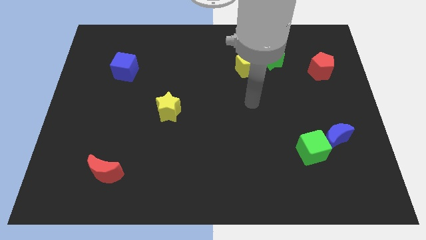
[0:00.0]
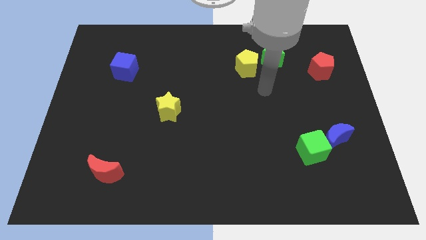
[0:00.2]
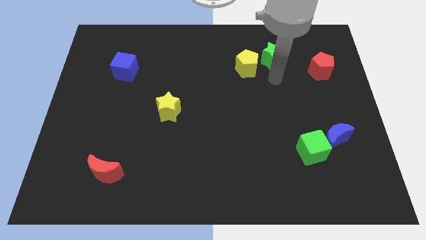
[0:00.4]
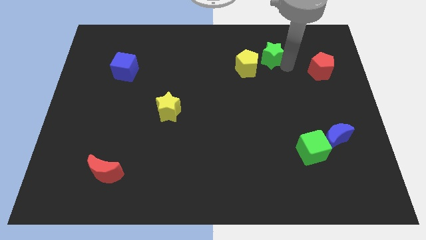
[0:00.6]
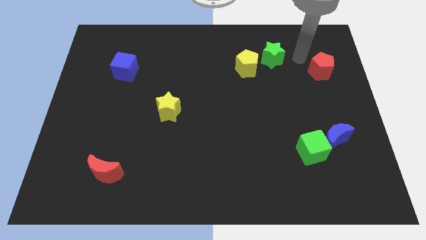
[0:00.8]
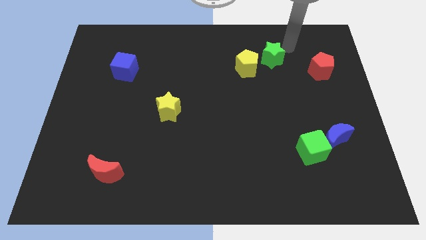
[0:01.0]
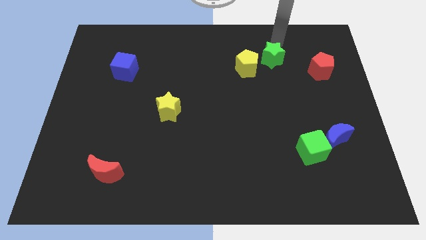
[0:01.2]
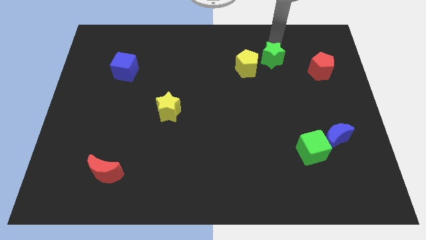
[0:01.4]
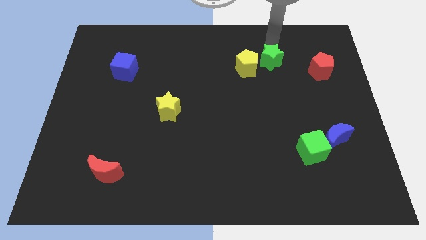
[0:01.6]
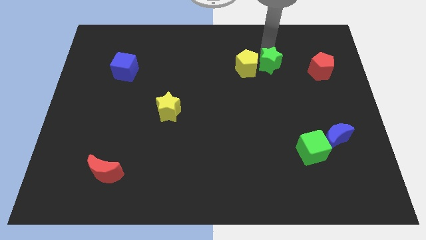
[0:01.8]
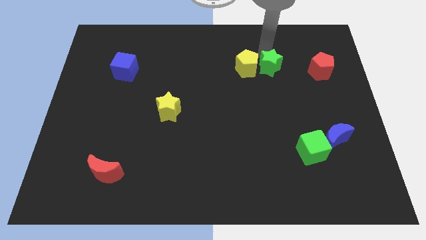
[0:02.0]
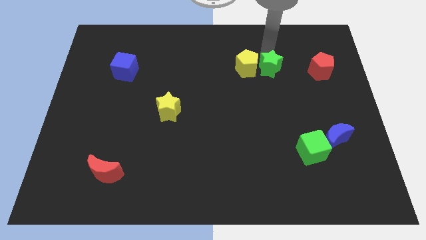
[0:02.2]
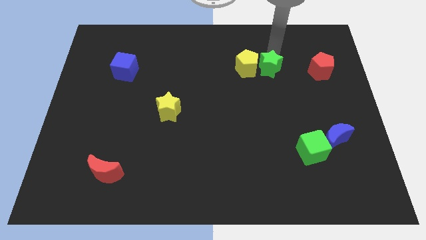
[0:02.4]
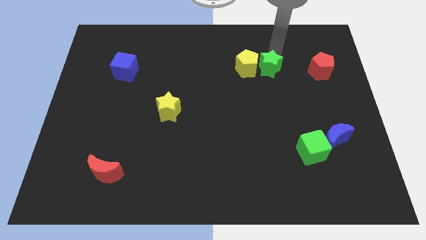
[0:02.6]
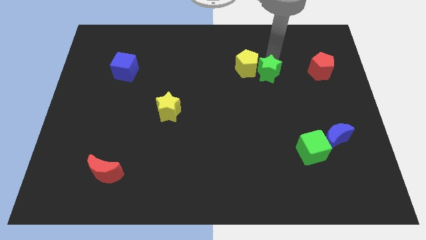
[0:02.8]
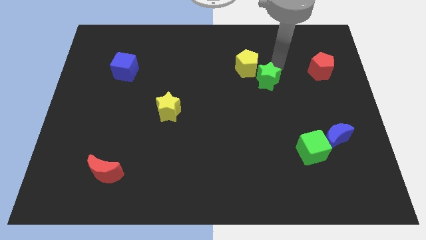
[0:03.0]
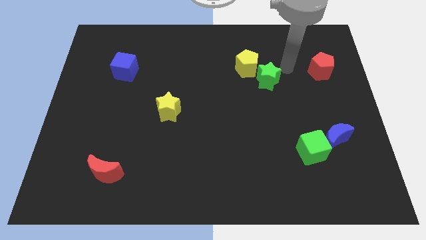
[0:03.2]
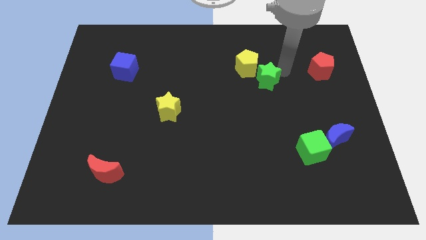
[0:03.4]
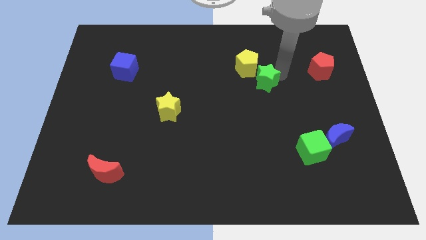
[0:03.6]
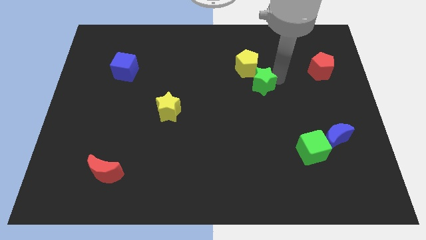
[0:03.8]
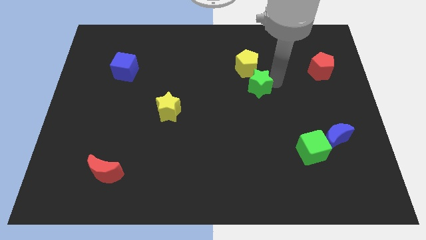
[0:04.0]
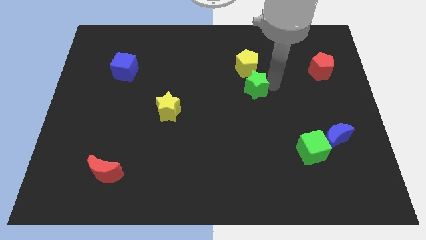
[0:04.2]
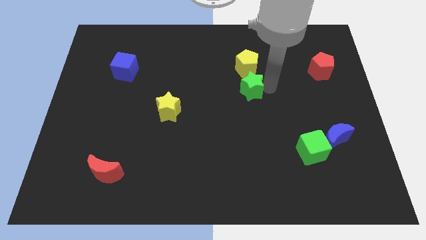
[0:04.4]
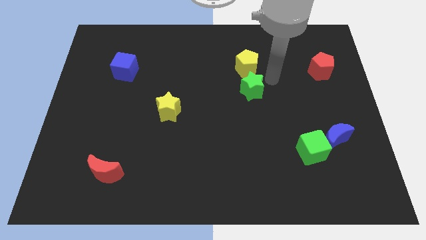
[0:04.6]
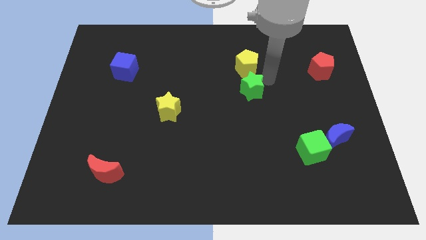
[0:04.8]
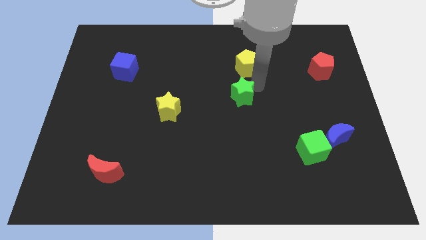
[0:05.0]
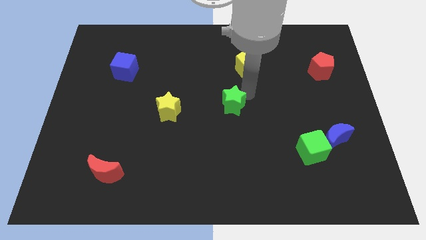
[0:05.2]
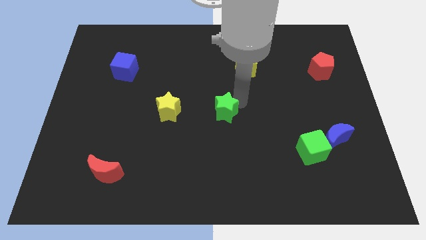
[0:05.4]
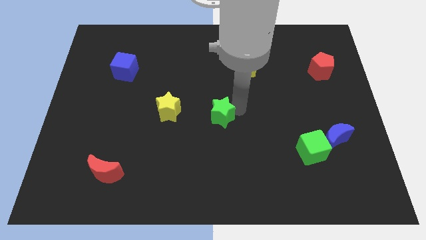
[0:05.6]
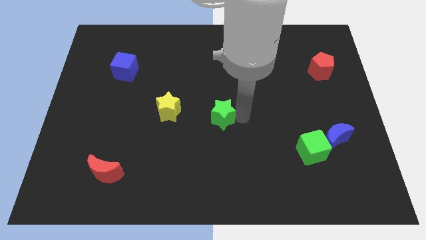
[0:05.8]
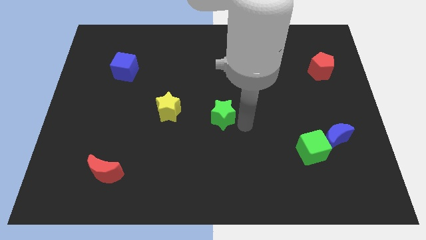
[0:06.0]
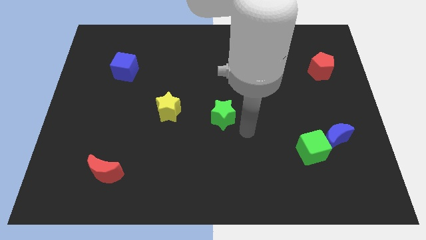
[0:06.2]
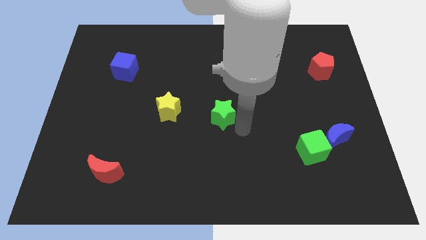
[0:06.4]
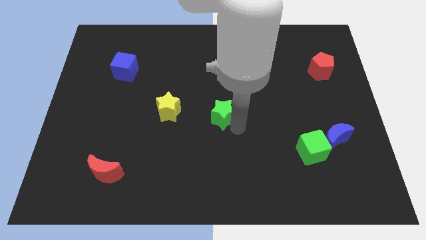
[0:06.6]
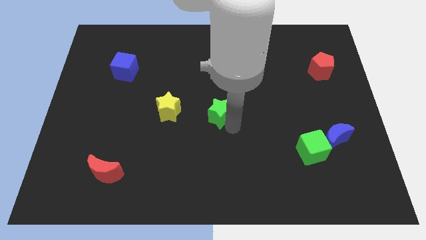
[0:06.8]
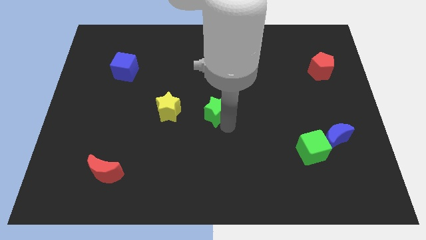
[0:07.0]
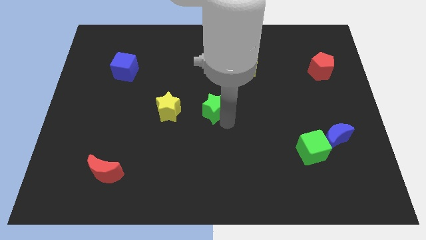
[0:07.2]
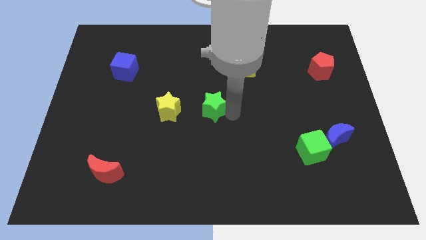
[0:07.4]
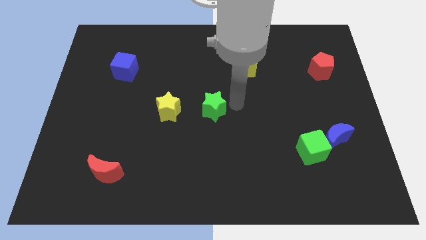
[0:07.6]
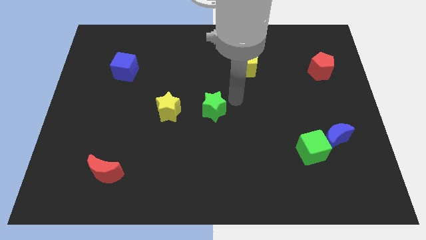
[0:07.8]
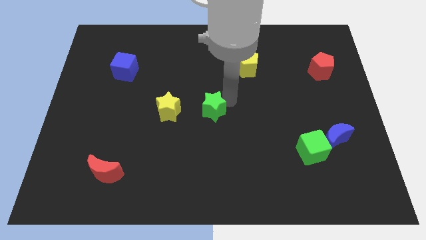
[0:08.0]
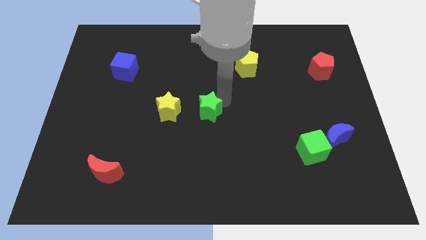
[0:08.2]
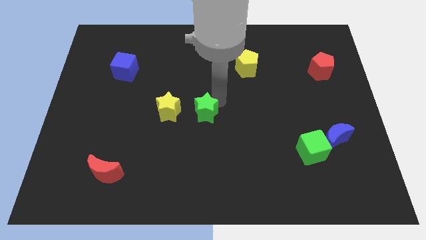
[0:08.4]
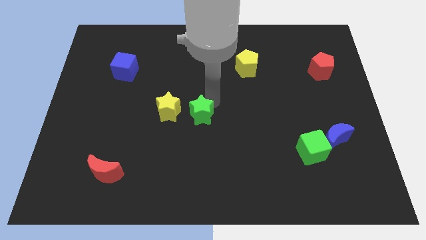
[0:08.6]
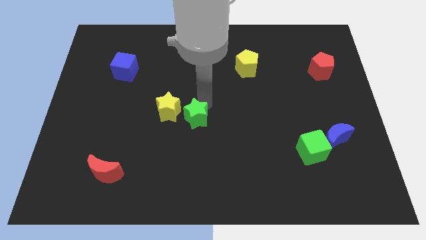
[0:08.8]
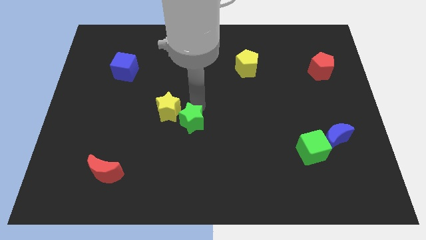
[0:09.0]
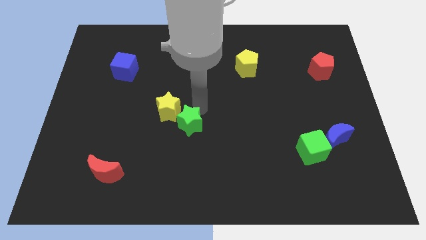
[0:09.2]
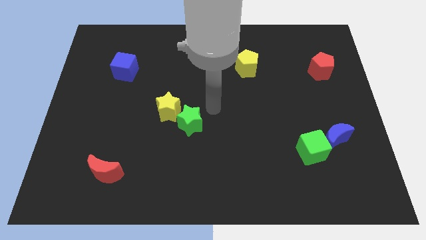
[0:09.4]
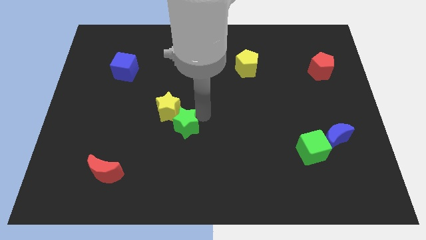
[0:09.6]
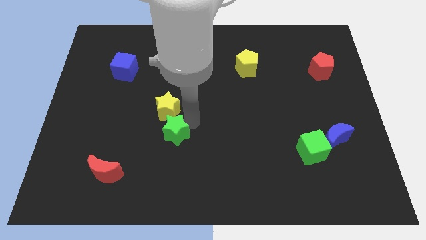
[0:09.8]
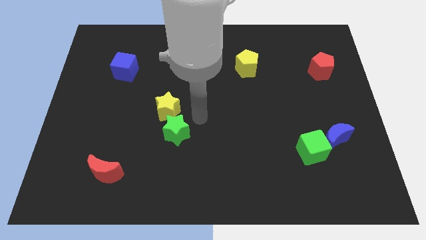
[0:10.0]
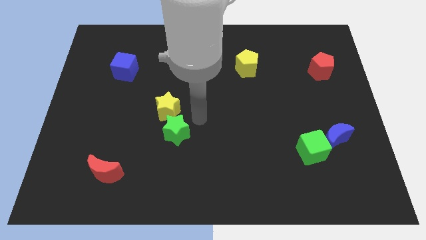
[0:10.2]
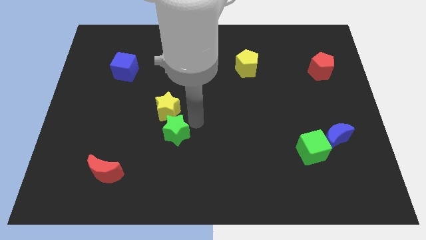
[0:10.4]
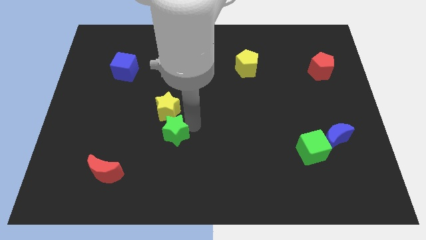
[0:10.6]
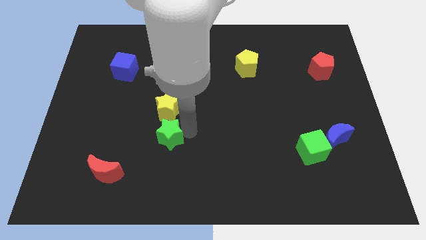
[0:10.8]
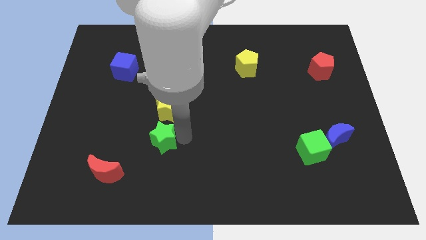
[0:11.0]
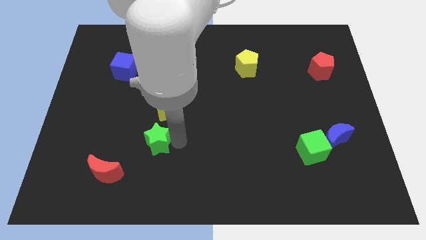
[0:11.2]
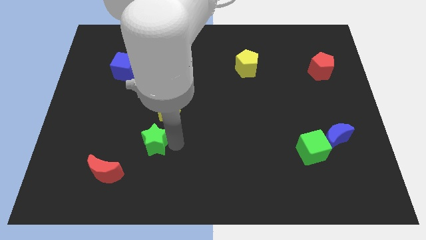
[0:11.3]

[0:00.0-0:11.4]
push the green star diagonally up and to the right of the red moon

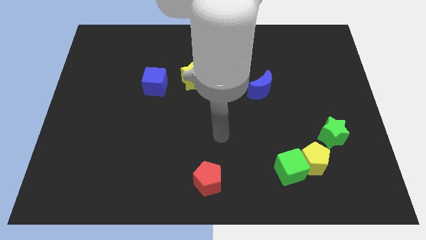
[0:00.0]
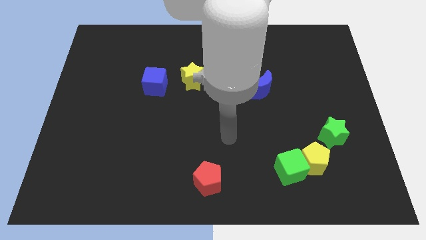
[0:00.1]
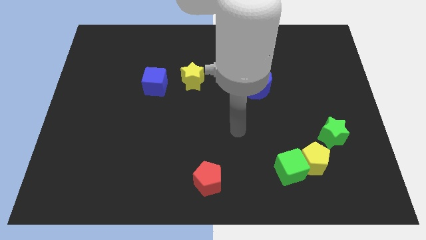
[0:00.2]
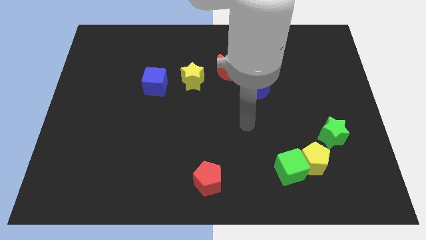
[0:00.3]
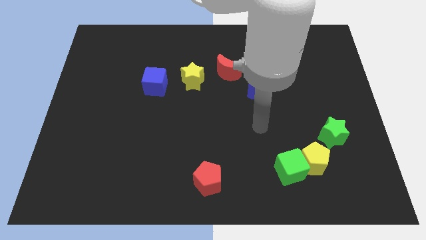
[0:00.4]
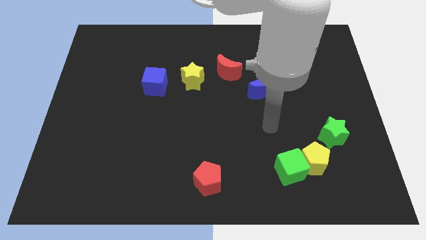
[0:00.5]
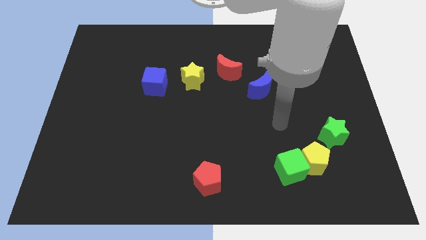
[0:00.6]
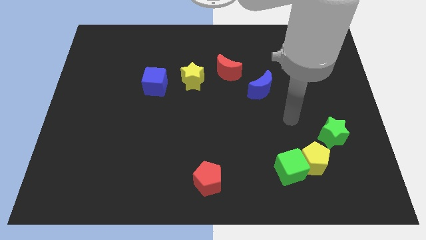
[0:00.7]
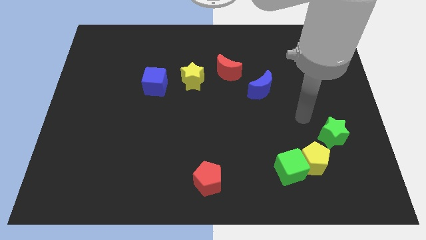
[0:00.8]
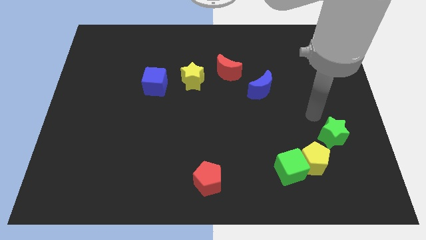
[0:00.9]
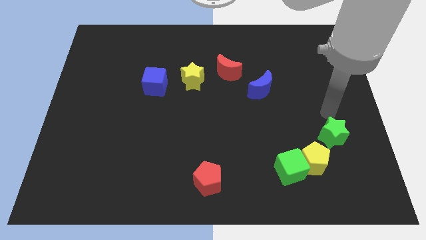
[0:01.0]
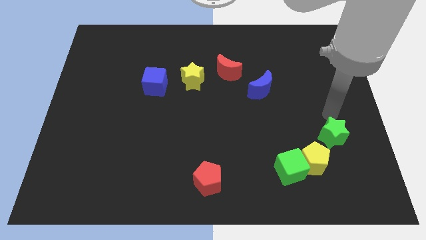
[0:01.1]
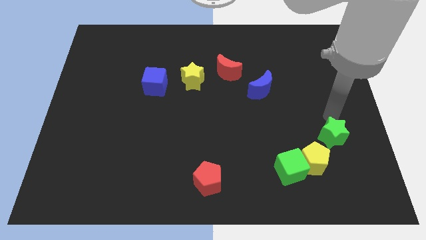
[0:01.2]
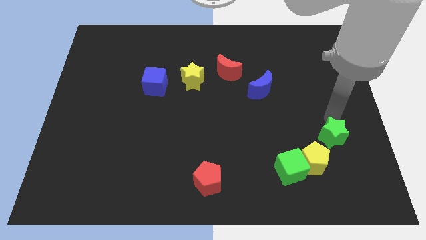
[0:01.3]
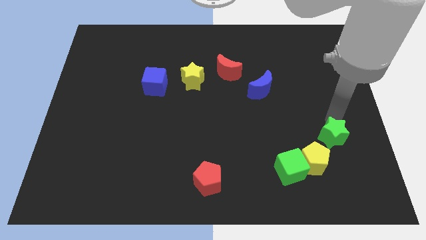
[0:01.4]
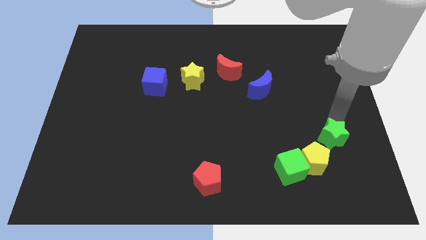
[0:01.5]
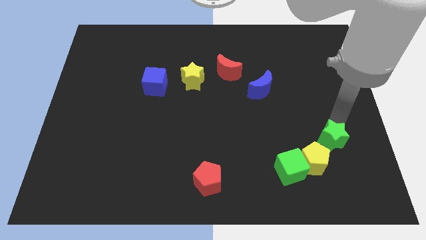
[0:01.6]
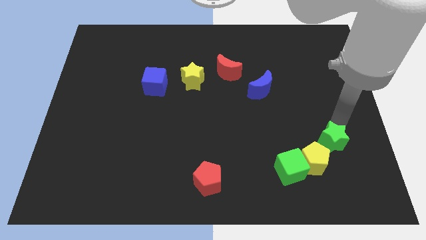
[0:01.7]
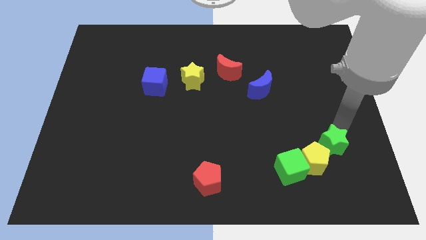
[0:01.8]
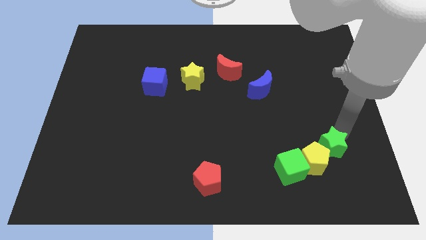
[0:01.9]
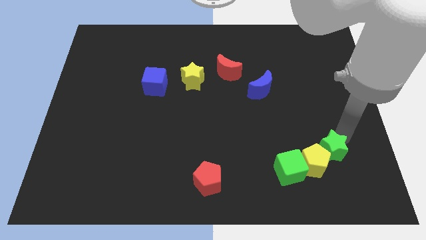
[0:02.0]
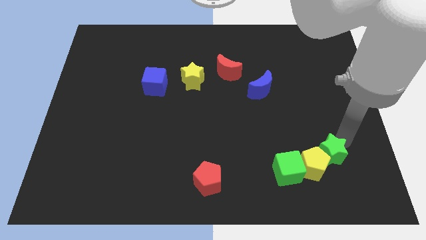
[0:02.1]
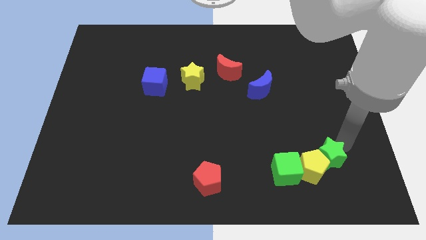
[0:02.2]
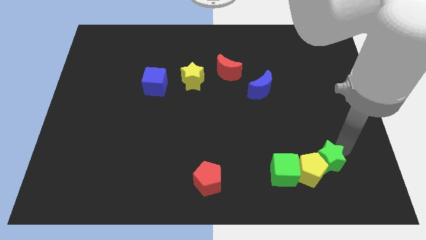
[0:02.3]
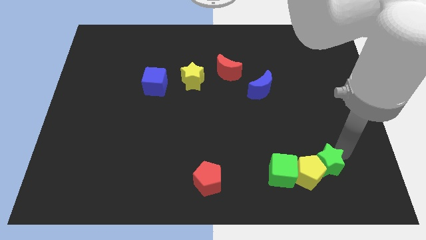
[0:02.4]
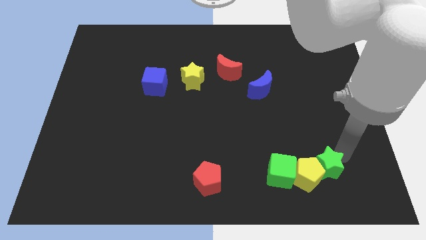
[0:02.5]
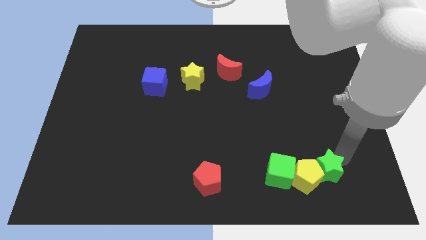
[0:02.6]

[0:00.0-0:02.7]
put the green star to the bottom right of the yellow pentagon
